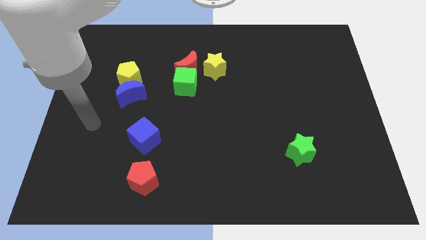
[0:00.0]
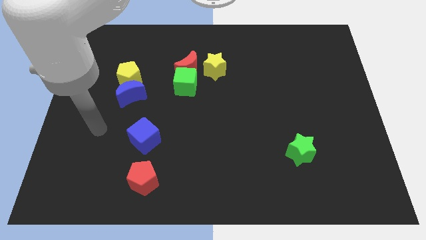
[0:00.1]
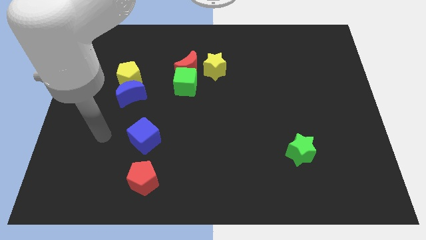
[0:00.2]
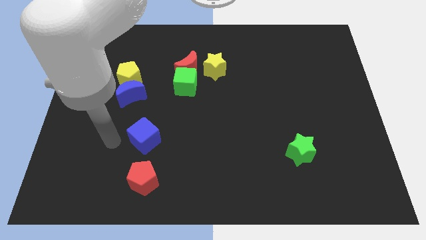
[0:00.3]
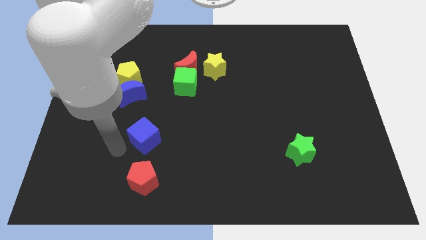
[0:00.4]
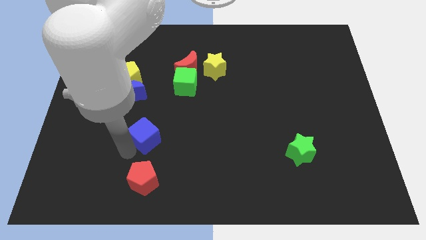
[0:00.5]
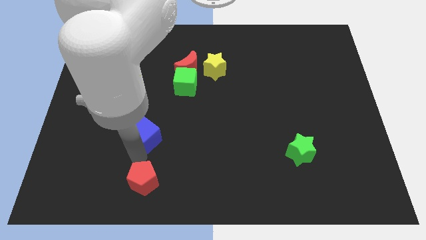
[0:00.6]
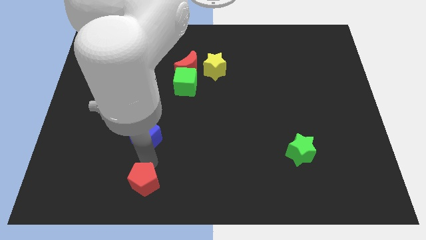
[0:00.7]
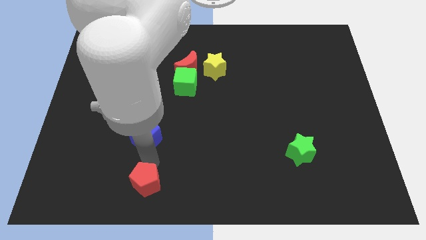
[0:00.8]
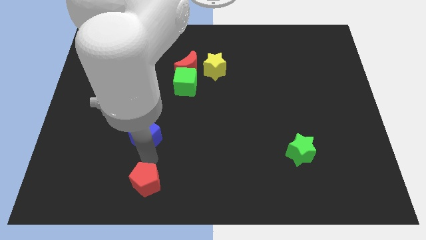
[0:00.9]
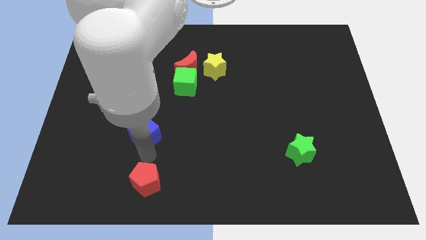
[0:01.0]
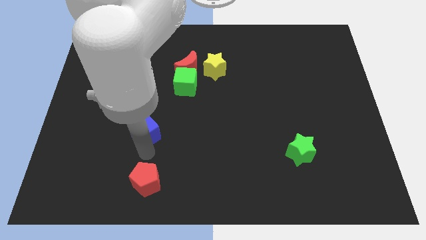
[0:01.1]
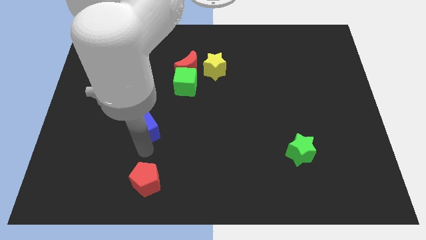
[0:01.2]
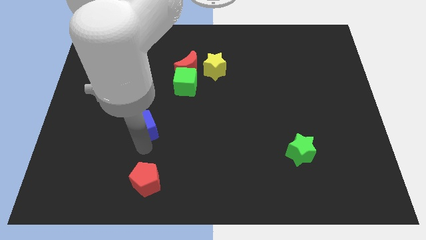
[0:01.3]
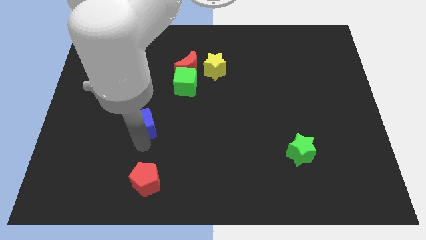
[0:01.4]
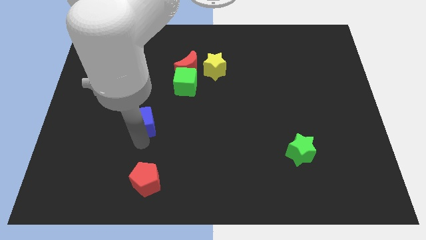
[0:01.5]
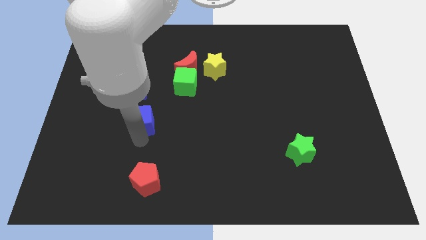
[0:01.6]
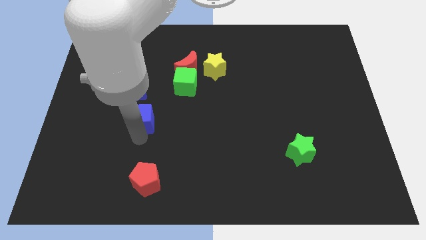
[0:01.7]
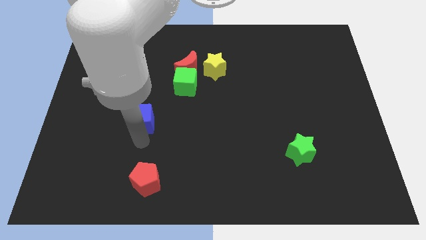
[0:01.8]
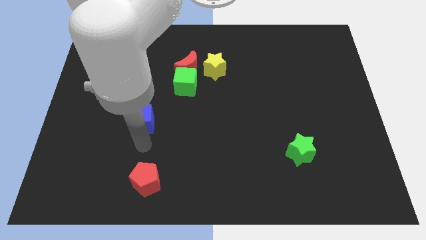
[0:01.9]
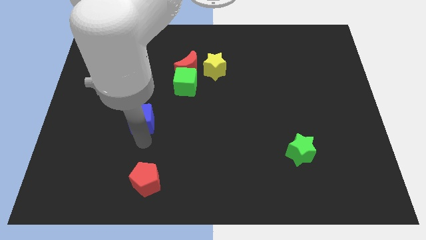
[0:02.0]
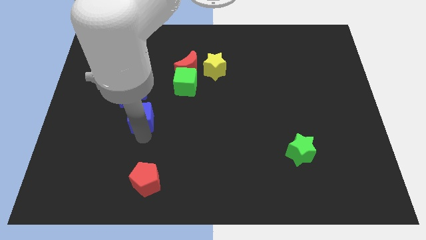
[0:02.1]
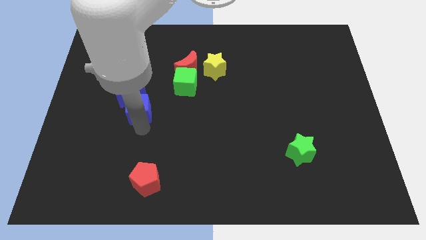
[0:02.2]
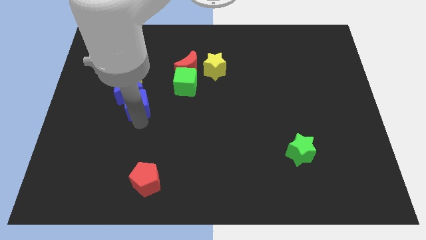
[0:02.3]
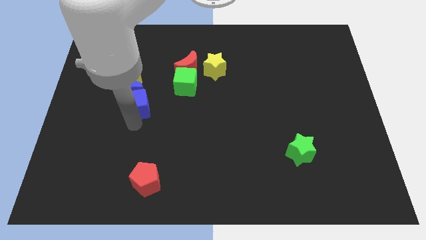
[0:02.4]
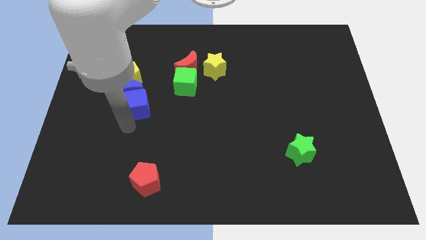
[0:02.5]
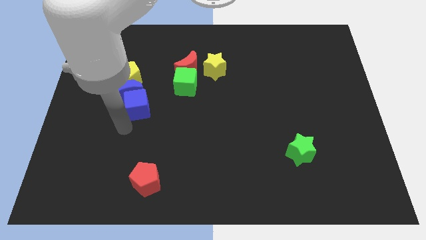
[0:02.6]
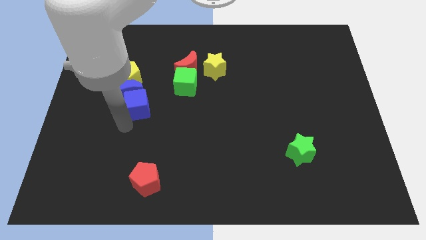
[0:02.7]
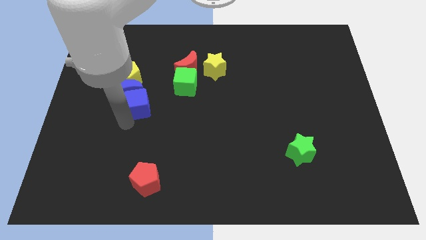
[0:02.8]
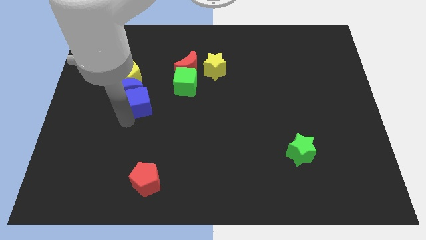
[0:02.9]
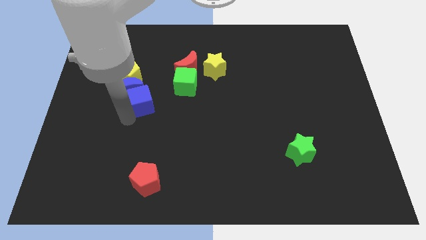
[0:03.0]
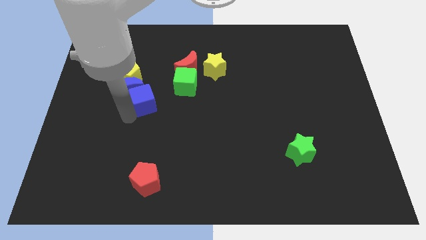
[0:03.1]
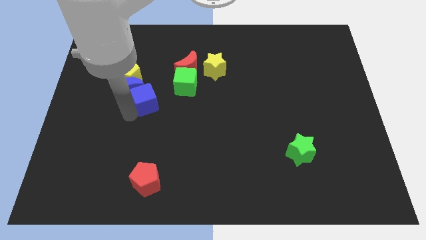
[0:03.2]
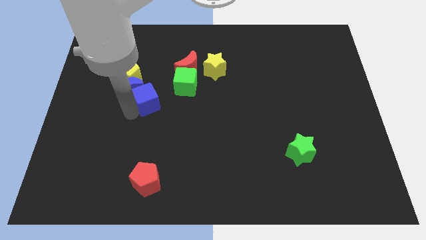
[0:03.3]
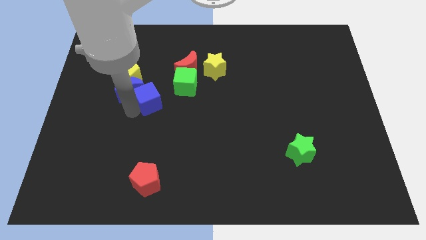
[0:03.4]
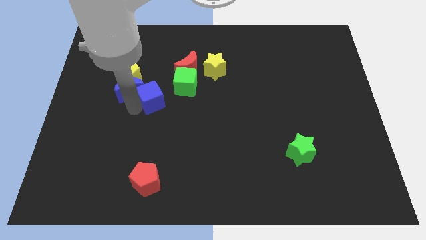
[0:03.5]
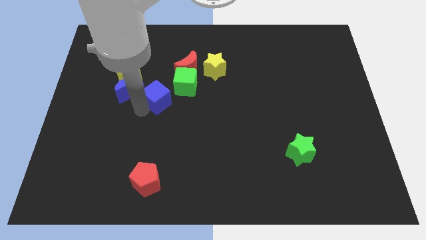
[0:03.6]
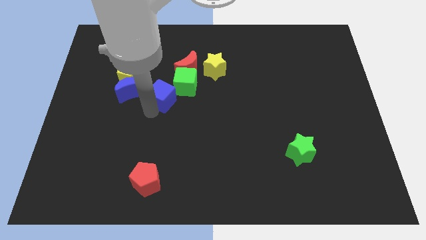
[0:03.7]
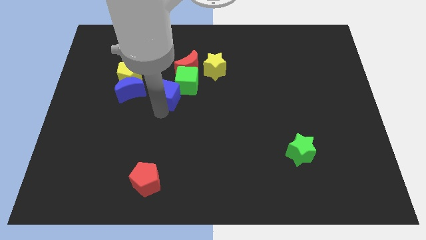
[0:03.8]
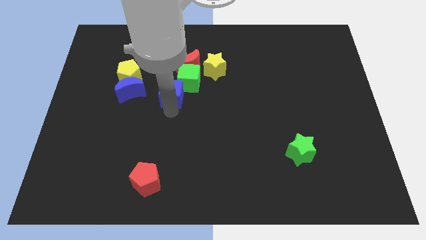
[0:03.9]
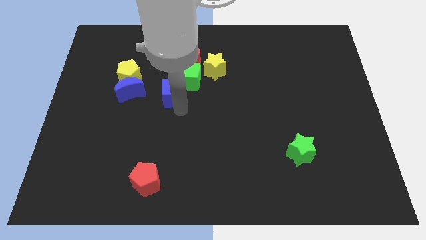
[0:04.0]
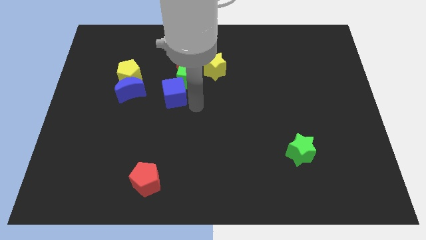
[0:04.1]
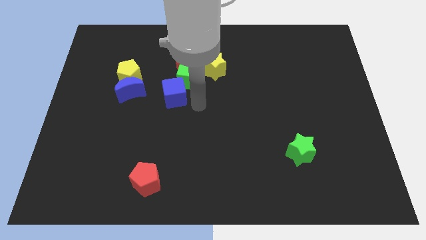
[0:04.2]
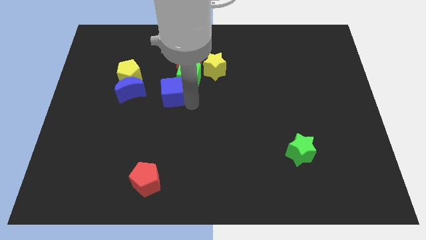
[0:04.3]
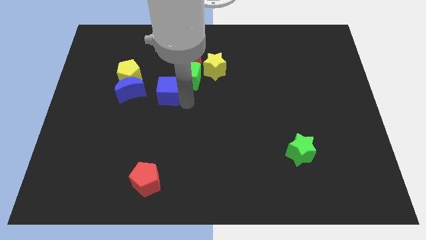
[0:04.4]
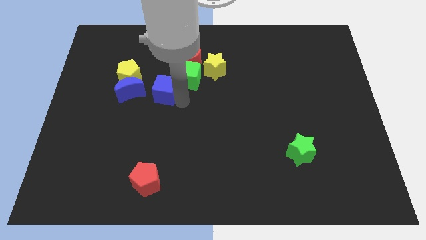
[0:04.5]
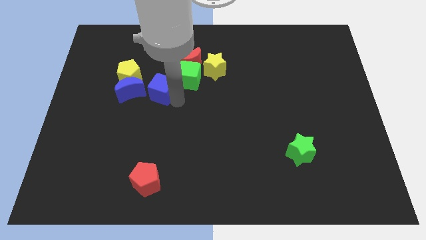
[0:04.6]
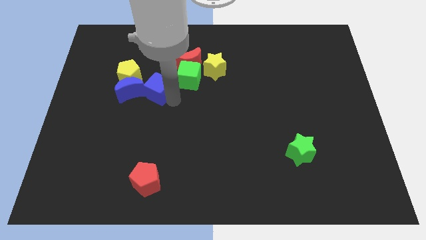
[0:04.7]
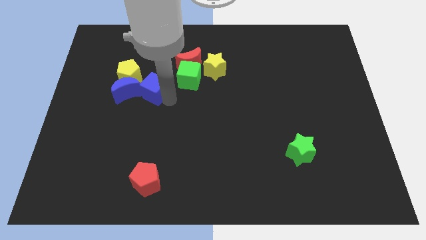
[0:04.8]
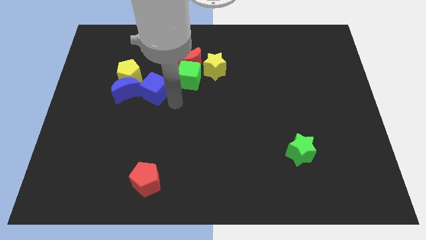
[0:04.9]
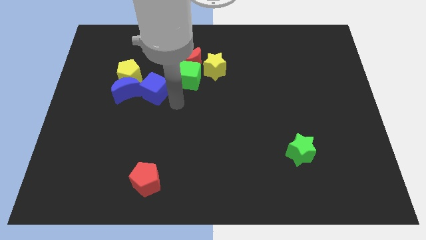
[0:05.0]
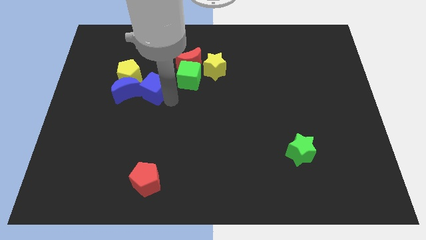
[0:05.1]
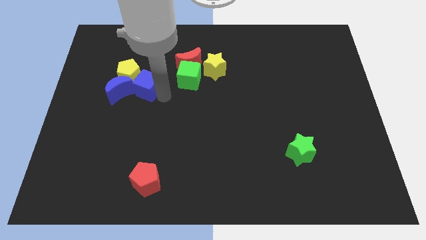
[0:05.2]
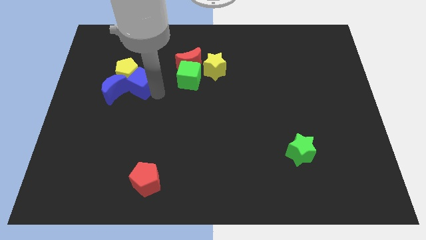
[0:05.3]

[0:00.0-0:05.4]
put the blue cube close to the yellow pentagon

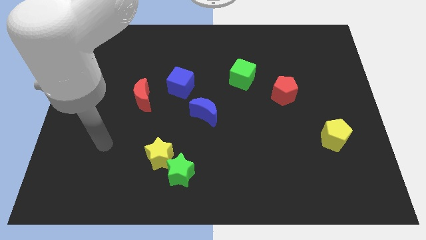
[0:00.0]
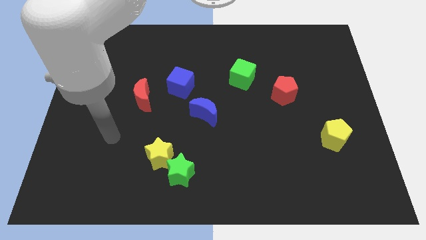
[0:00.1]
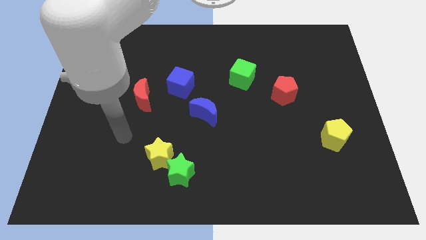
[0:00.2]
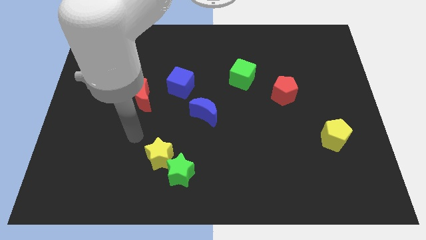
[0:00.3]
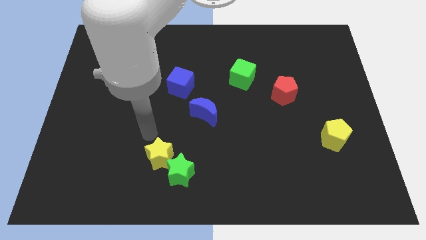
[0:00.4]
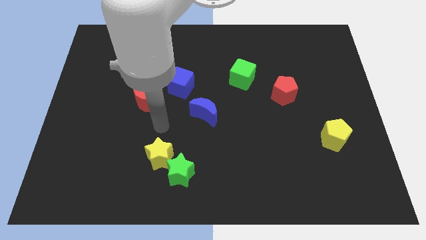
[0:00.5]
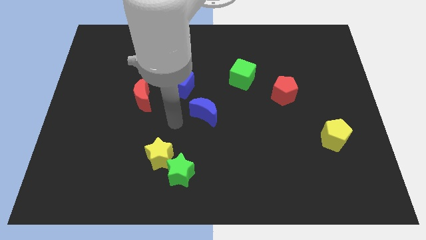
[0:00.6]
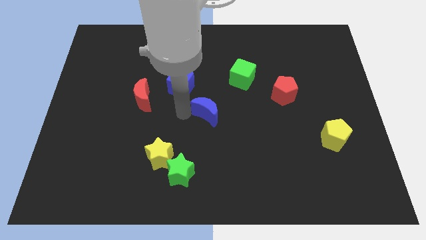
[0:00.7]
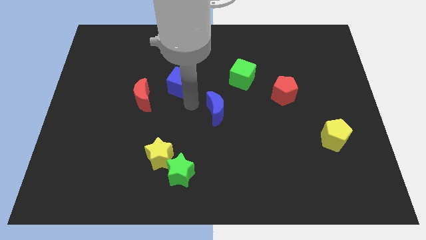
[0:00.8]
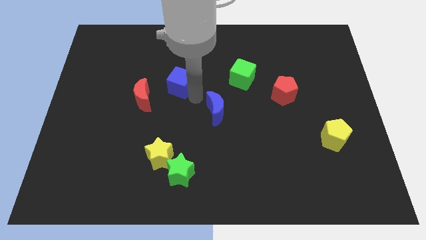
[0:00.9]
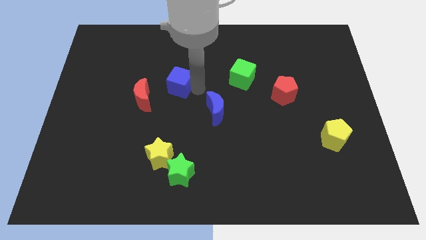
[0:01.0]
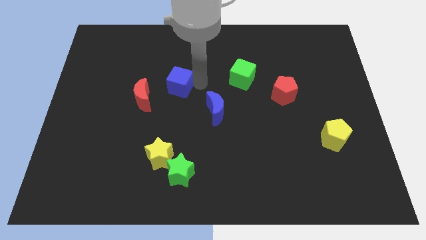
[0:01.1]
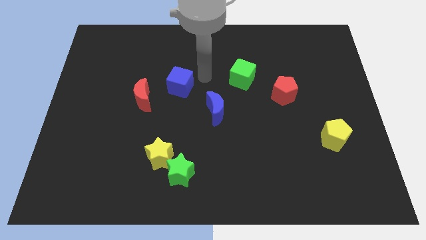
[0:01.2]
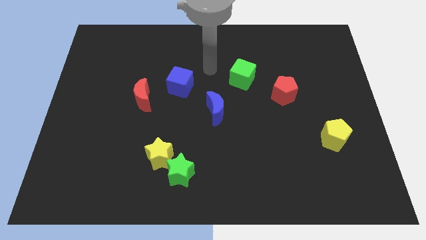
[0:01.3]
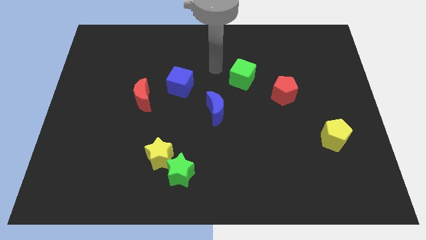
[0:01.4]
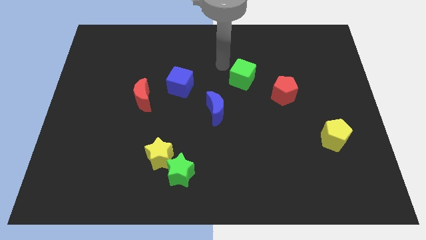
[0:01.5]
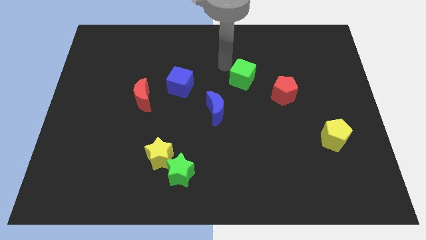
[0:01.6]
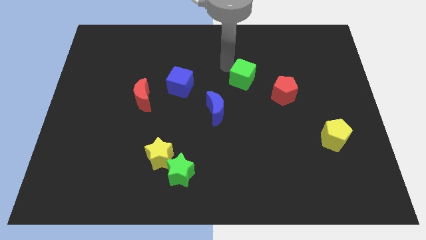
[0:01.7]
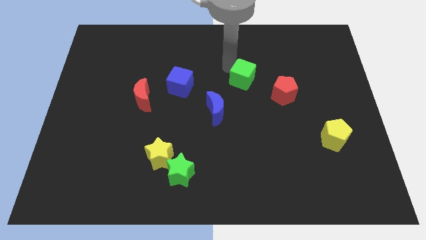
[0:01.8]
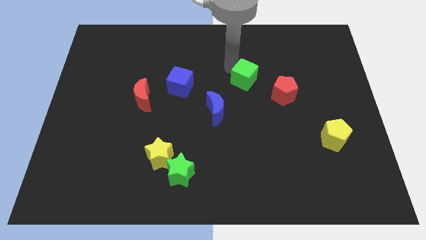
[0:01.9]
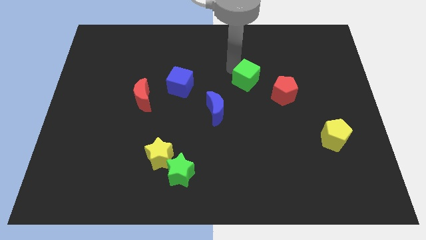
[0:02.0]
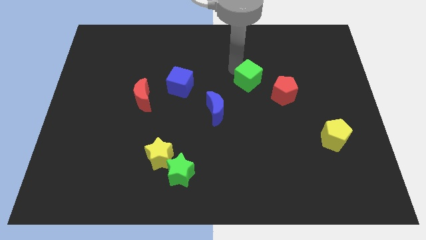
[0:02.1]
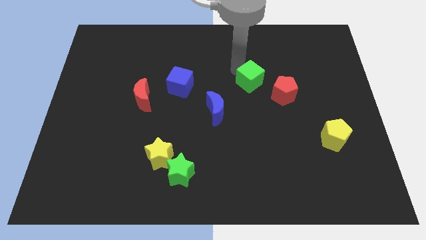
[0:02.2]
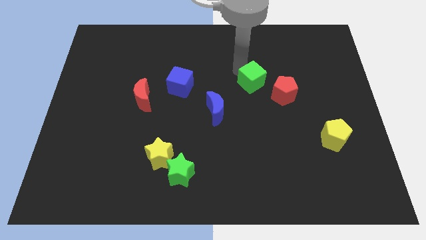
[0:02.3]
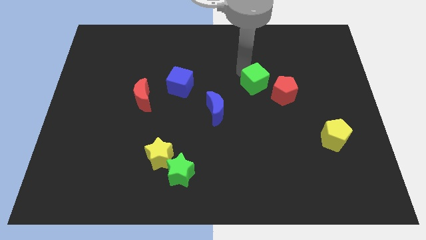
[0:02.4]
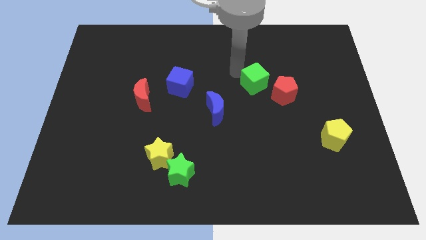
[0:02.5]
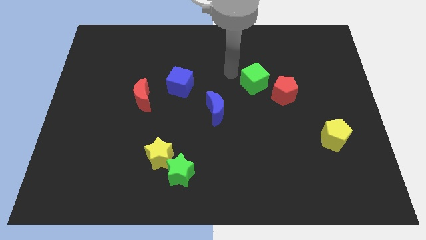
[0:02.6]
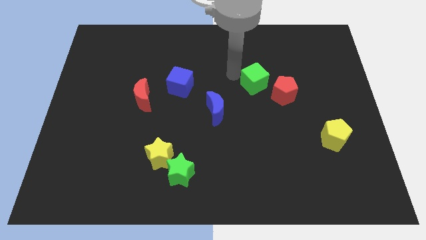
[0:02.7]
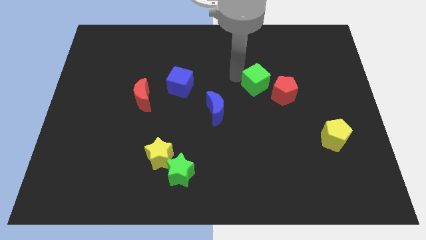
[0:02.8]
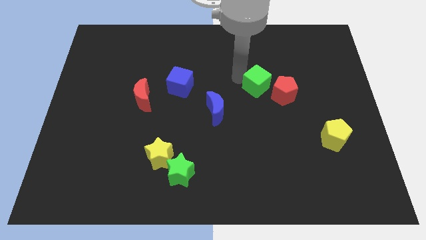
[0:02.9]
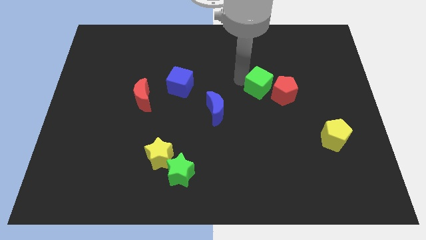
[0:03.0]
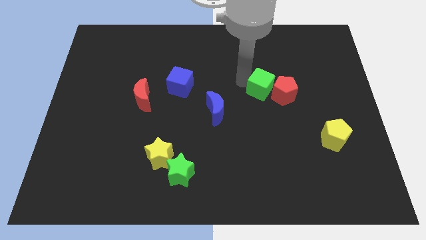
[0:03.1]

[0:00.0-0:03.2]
put the green cube next to the red pentagon
